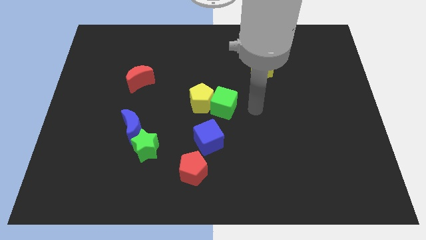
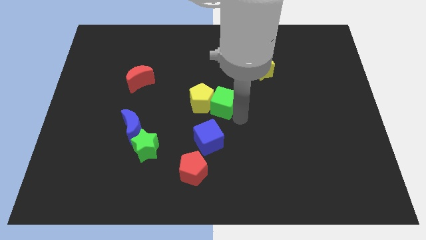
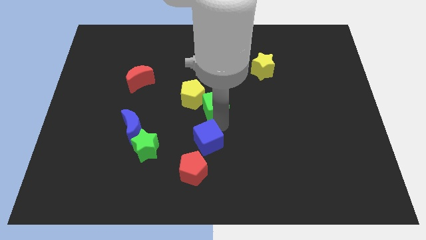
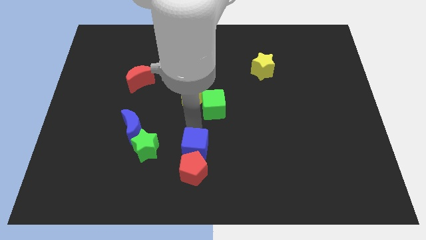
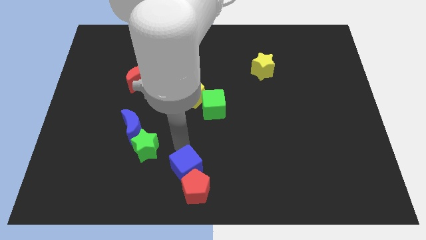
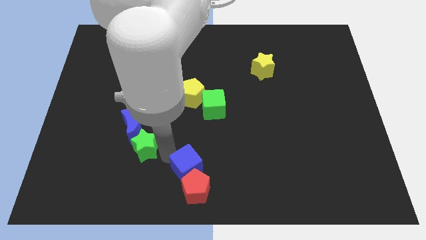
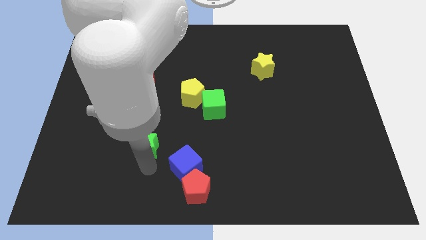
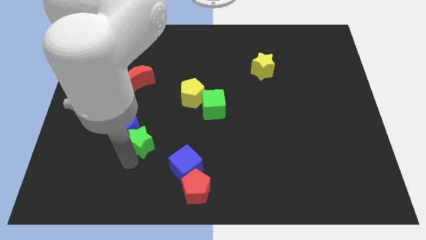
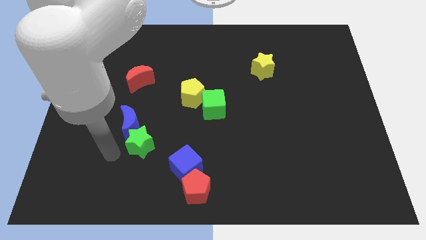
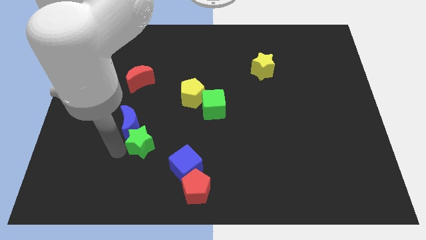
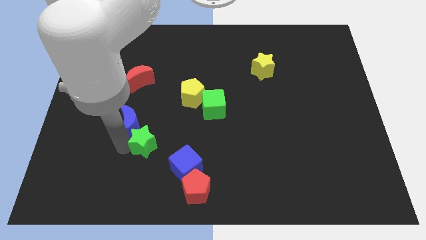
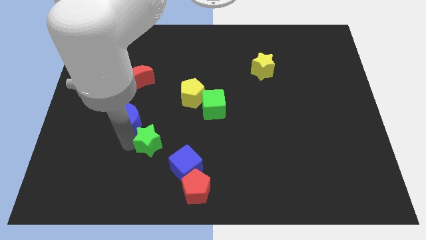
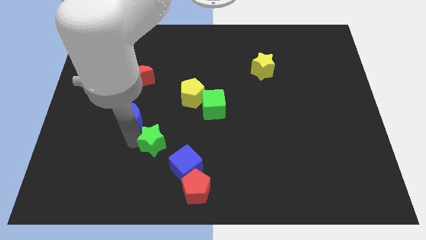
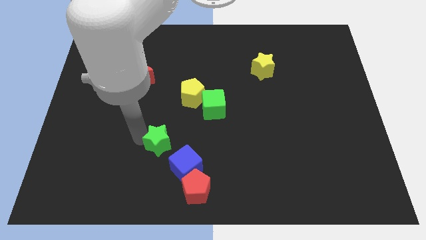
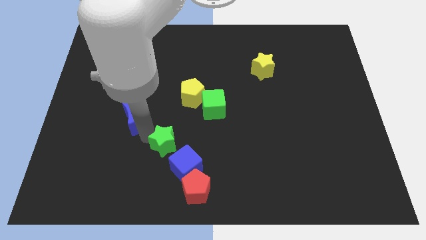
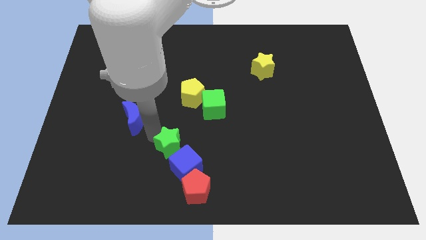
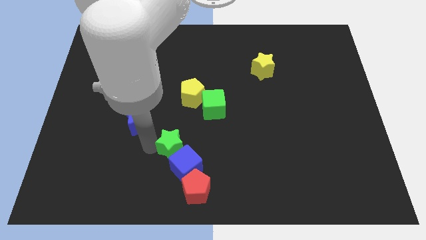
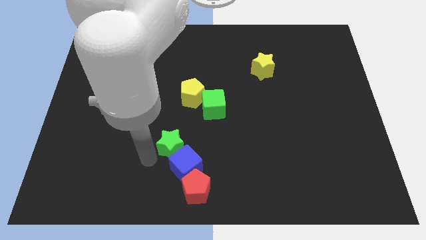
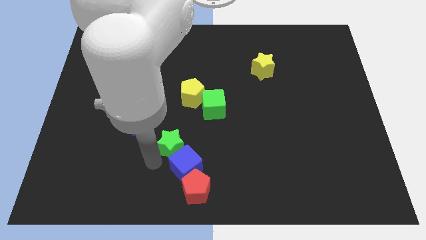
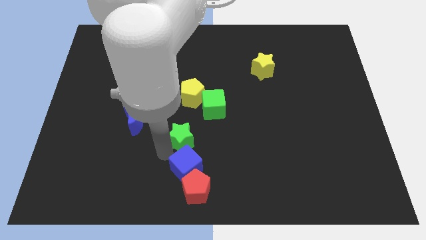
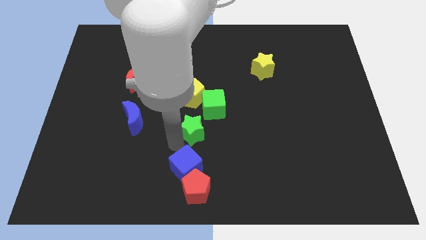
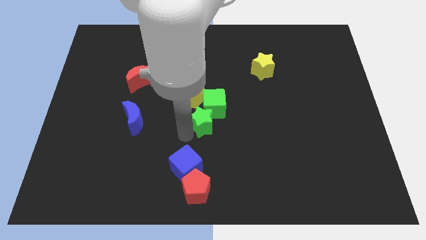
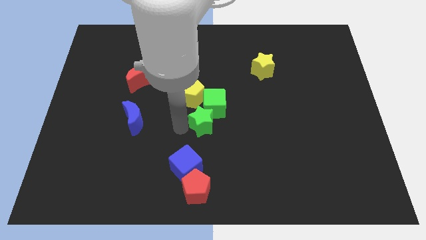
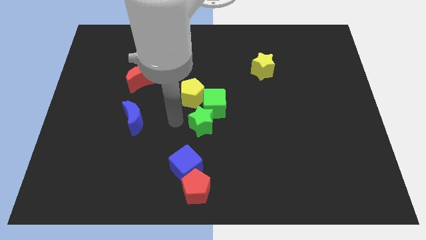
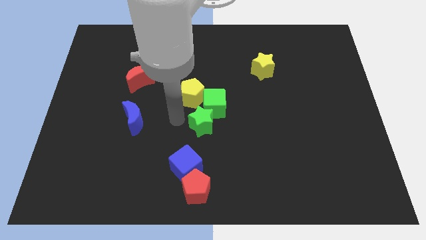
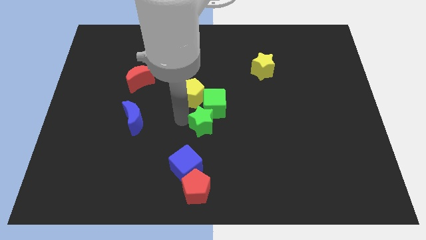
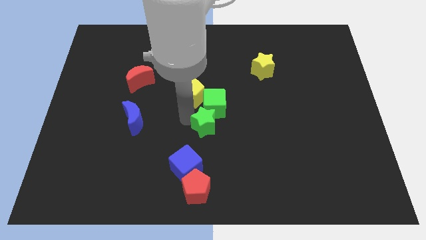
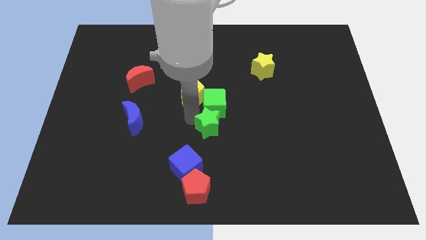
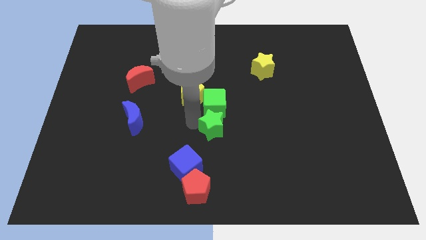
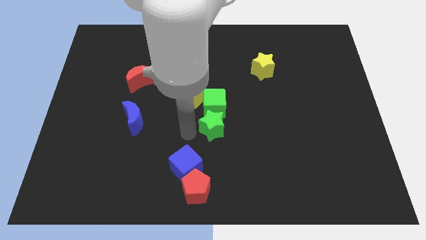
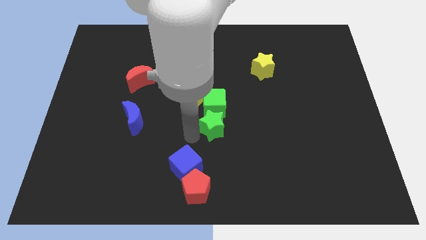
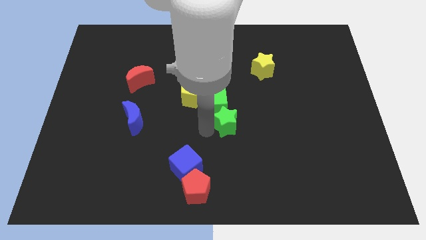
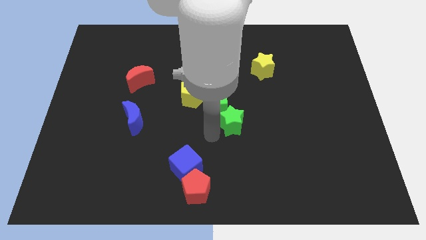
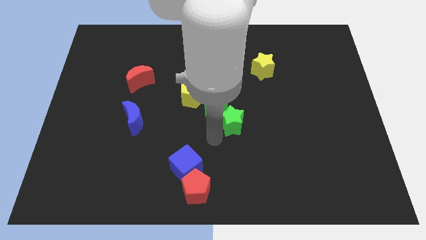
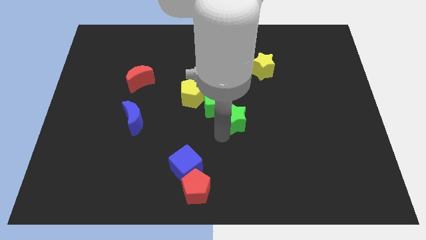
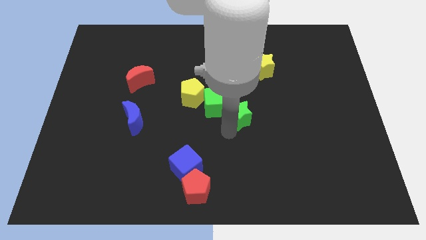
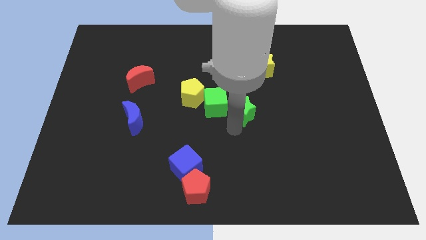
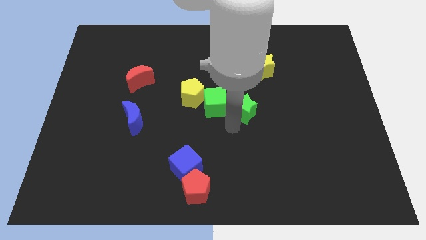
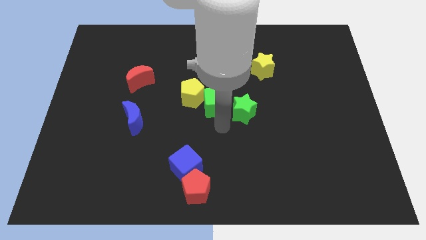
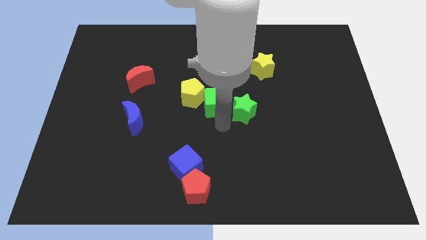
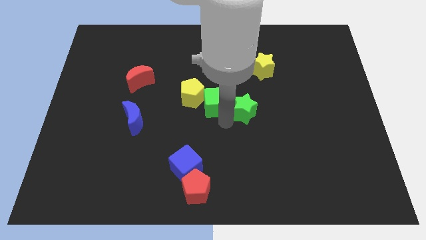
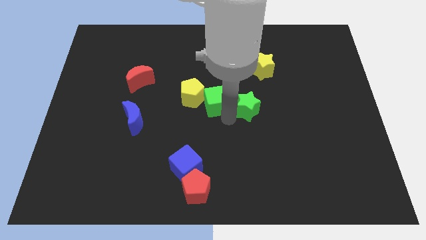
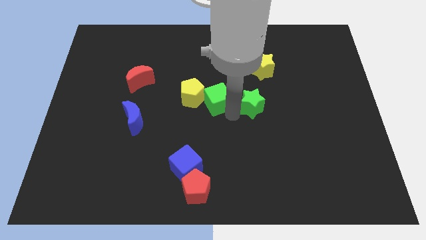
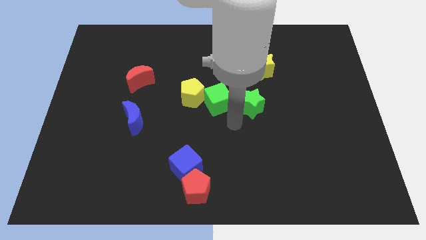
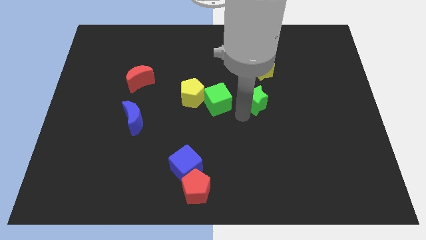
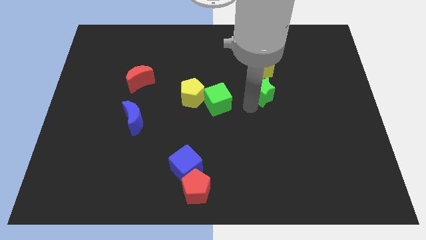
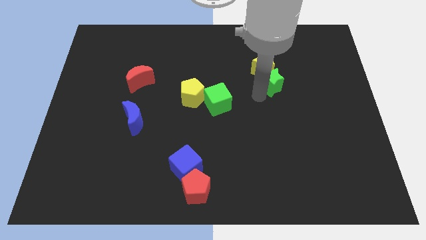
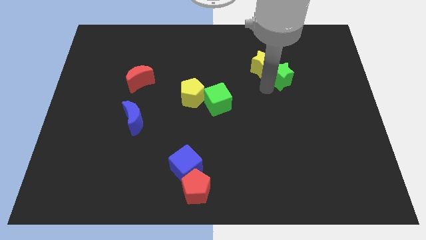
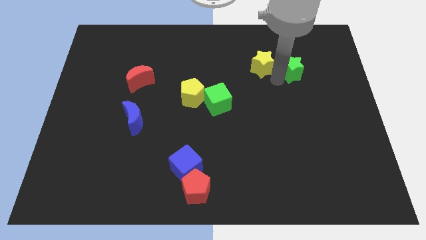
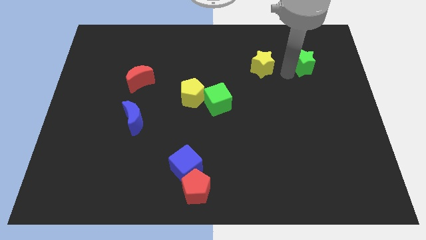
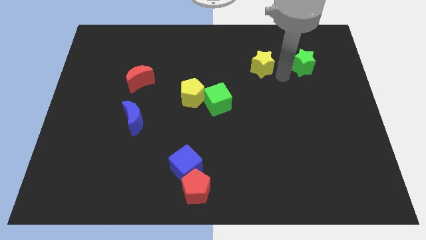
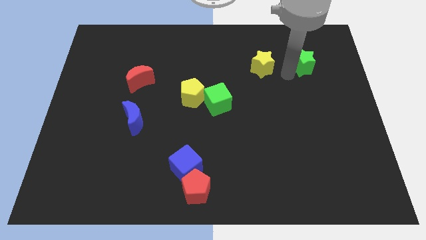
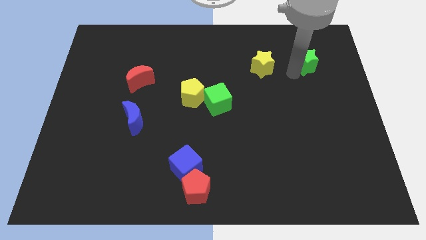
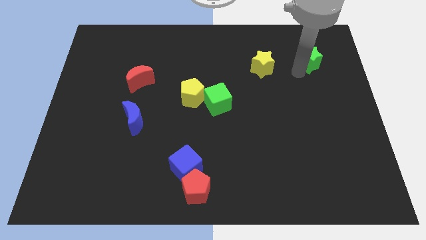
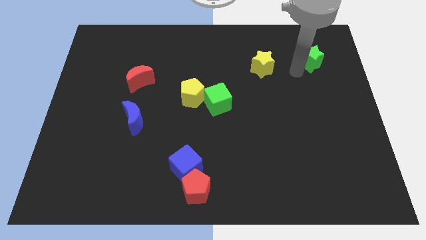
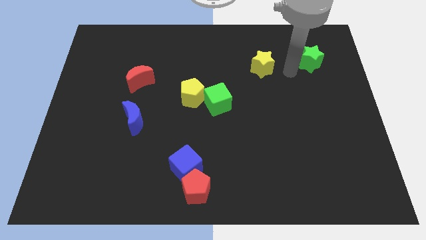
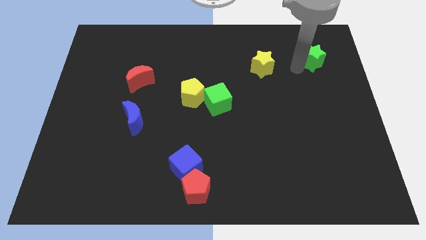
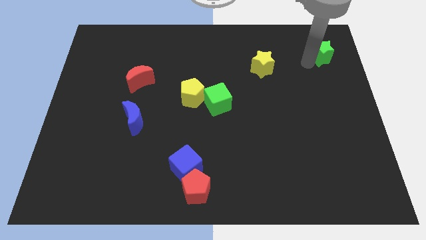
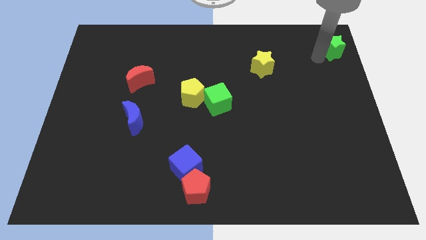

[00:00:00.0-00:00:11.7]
slide the green star to the top right of the board

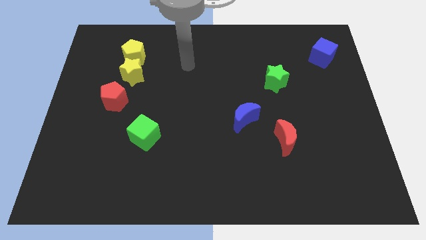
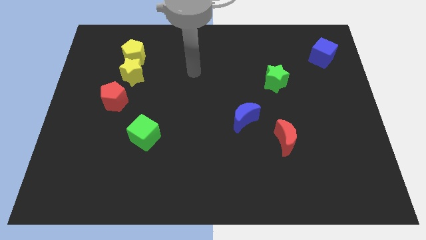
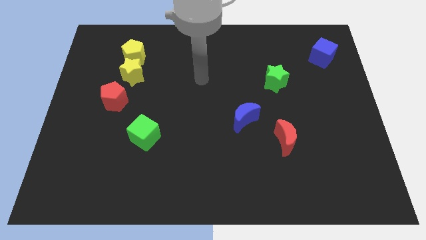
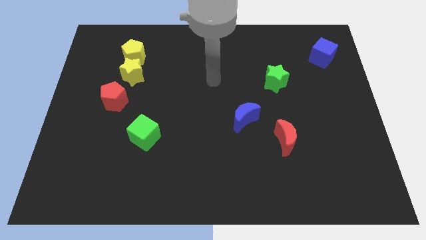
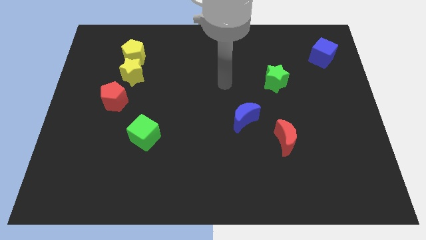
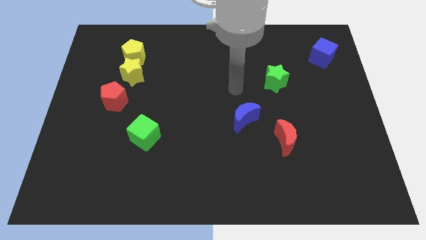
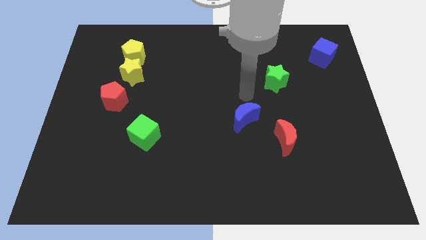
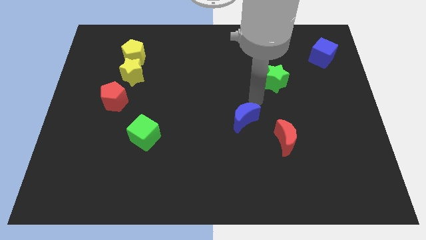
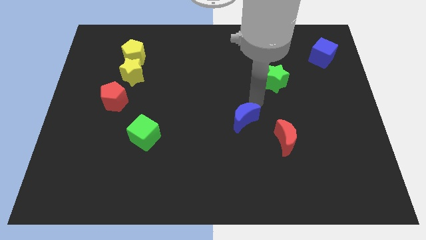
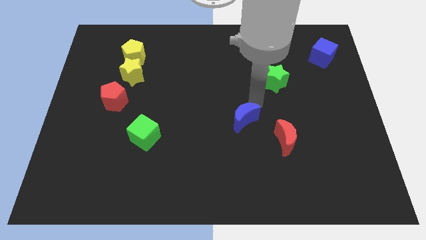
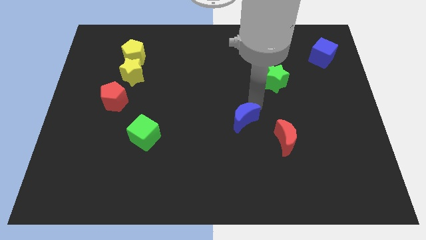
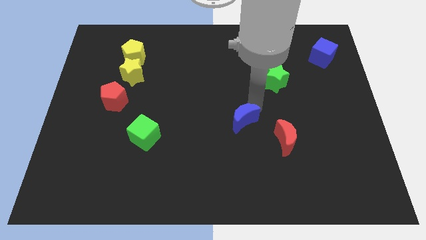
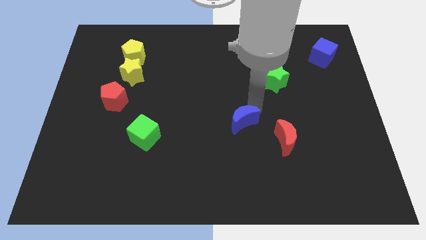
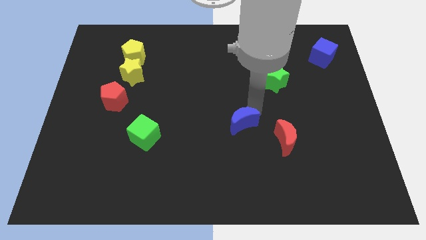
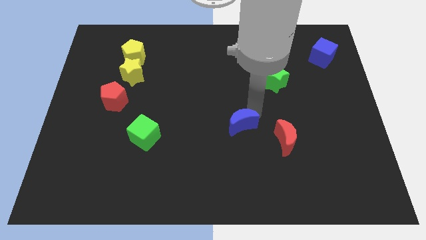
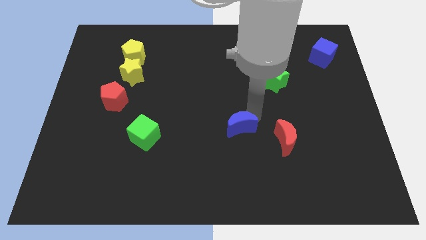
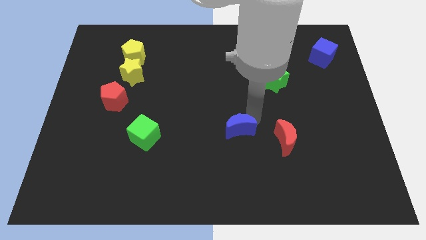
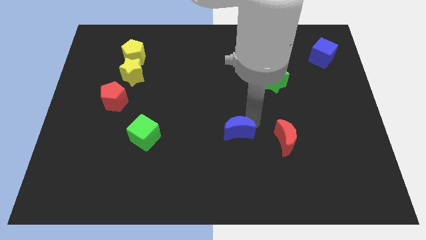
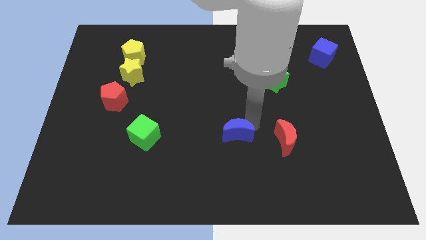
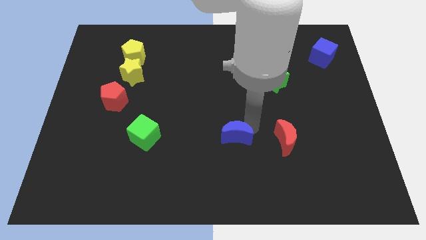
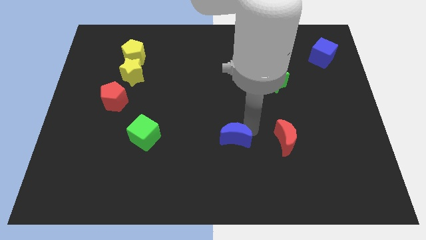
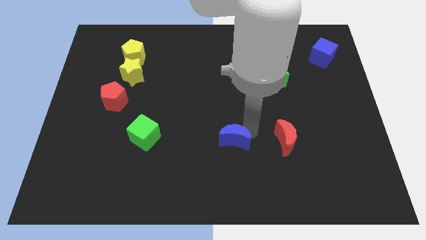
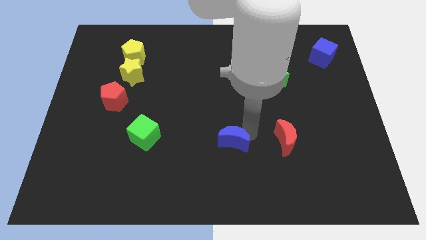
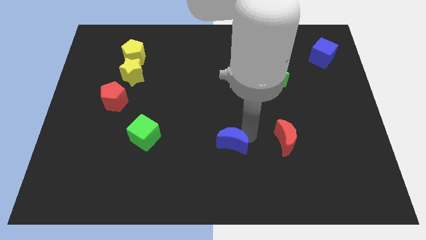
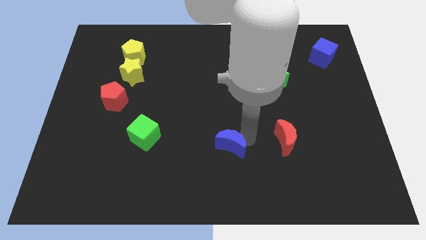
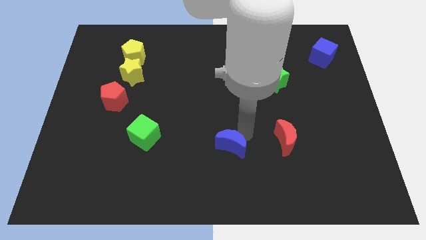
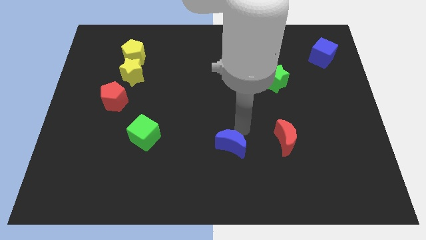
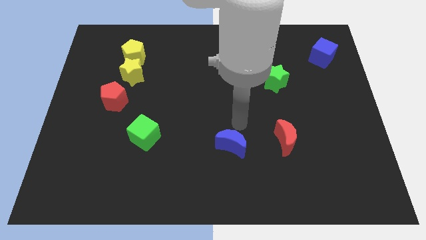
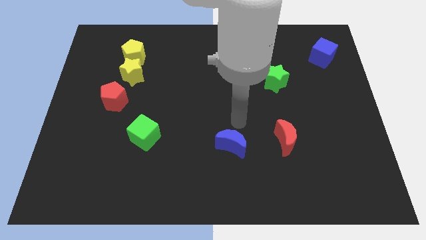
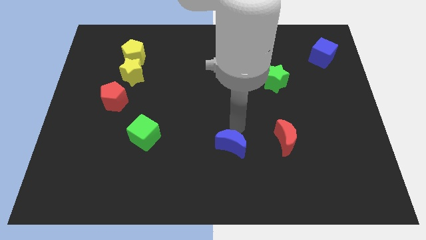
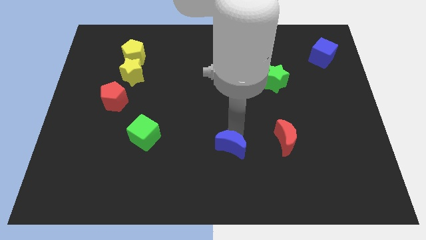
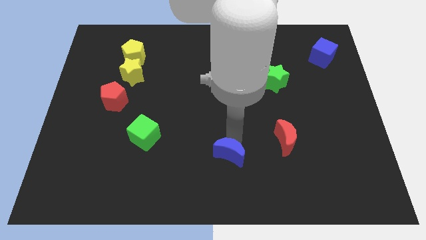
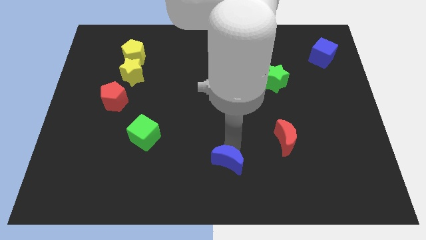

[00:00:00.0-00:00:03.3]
push the blue moon to the bottom
